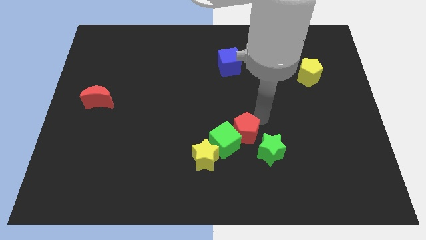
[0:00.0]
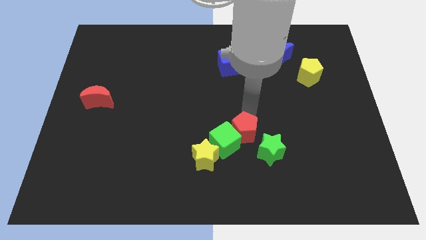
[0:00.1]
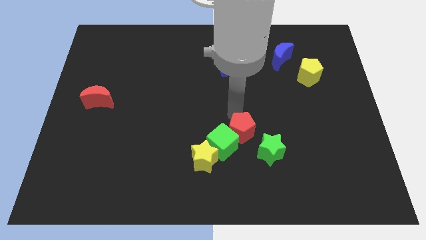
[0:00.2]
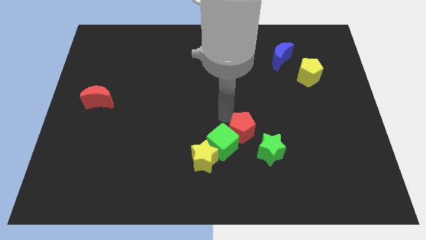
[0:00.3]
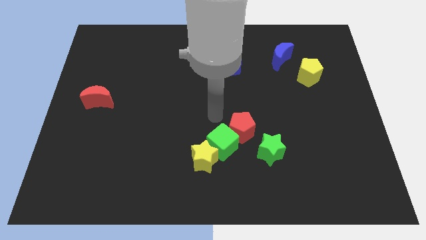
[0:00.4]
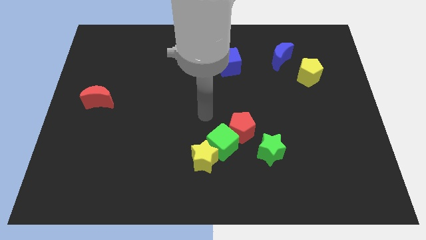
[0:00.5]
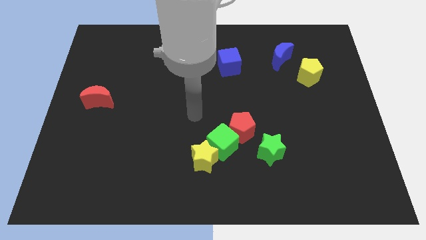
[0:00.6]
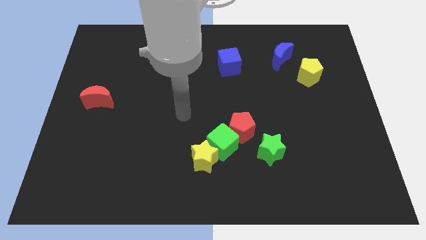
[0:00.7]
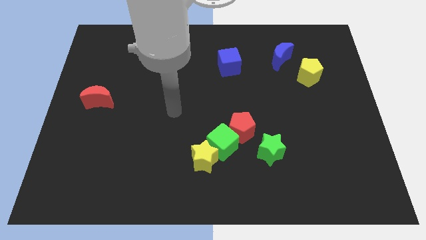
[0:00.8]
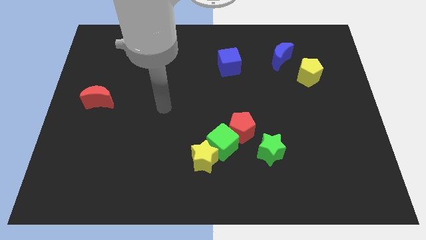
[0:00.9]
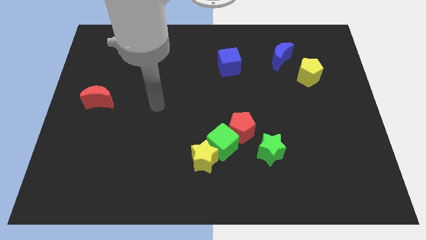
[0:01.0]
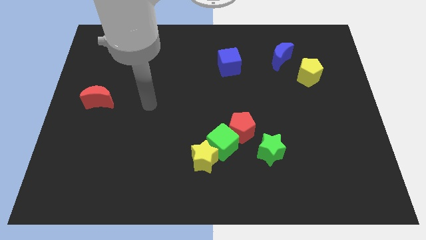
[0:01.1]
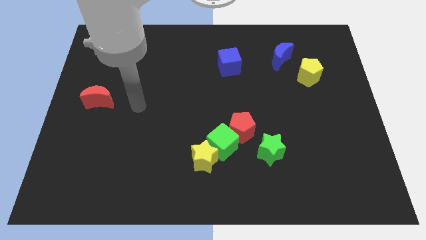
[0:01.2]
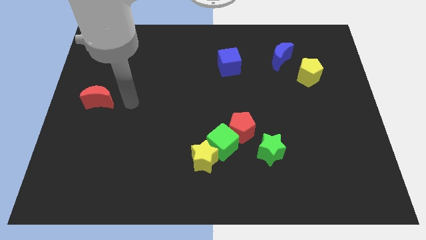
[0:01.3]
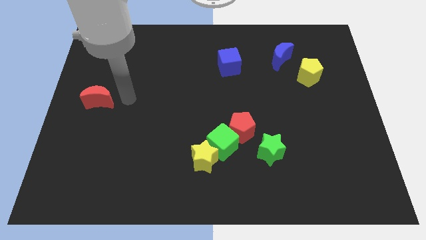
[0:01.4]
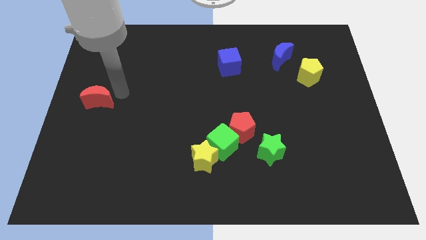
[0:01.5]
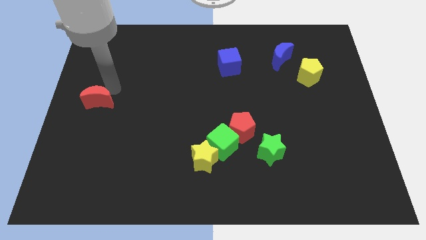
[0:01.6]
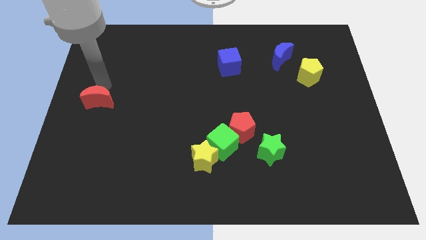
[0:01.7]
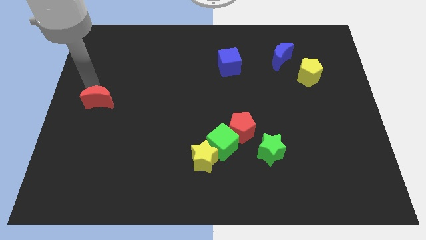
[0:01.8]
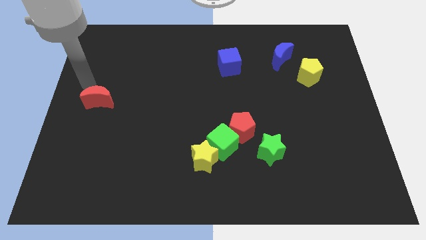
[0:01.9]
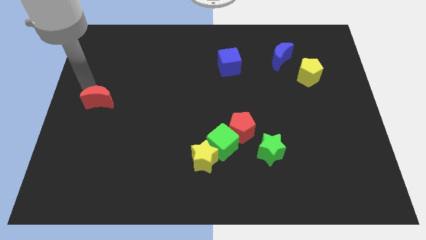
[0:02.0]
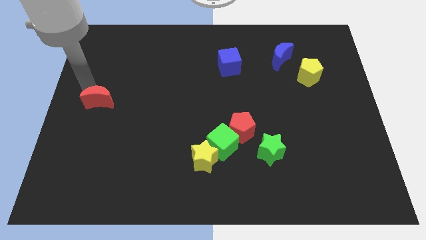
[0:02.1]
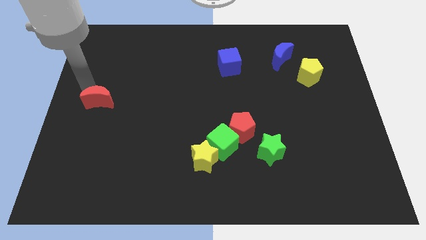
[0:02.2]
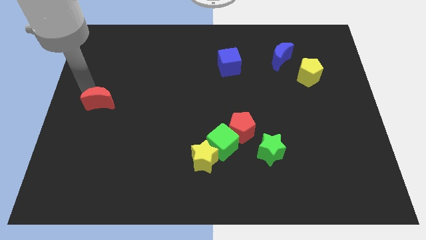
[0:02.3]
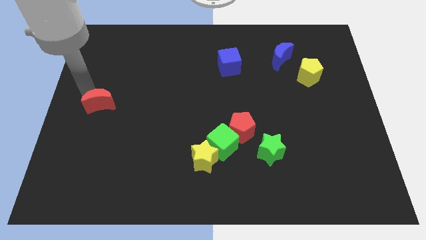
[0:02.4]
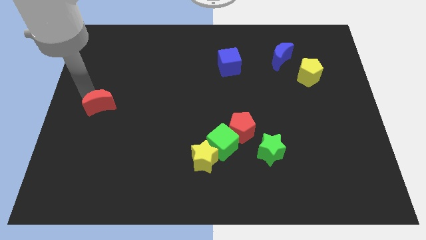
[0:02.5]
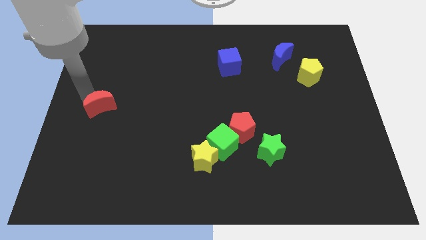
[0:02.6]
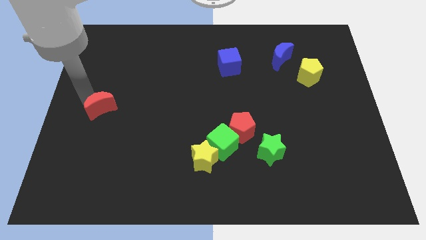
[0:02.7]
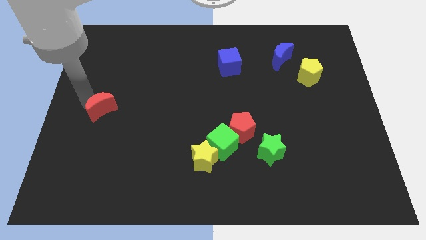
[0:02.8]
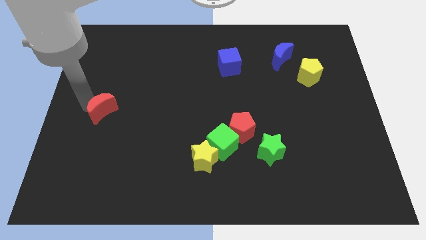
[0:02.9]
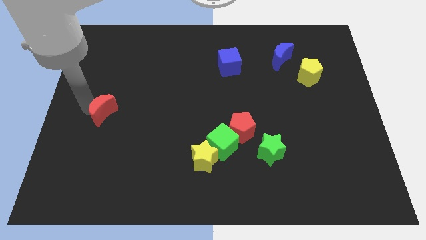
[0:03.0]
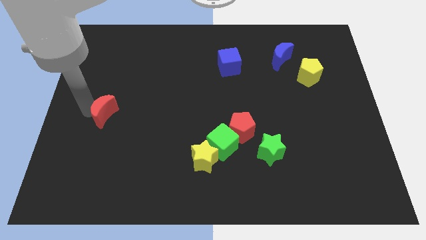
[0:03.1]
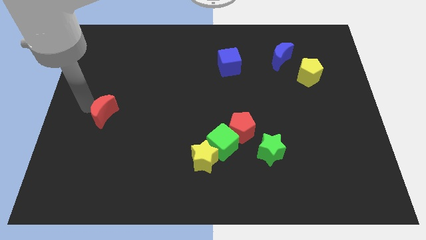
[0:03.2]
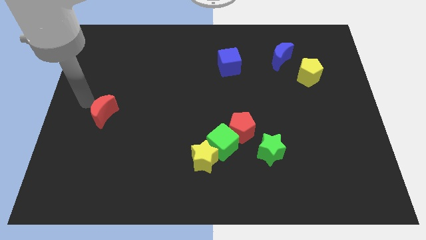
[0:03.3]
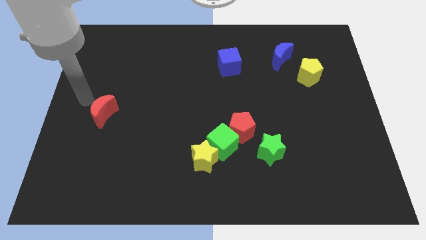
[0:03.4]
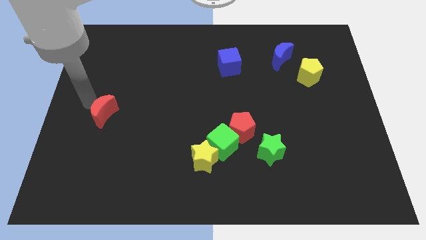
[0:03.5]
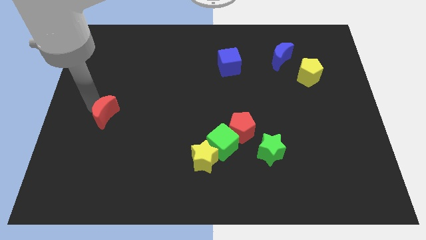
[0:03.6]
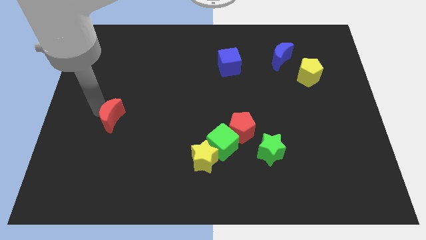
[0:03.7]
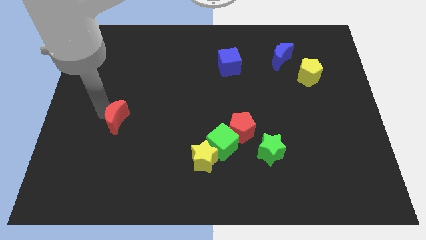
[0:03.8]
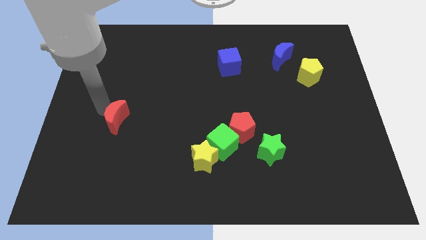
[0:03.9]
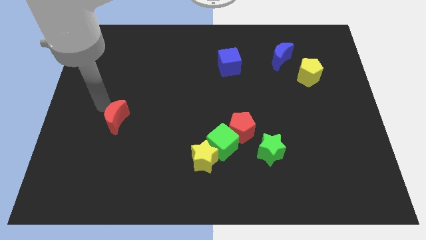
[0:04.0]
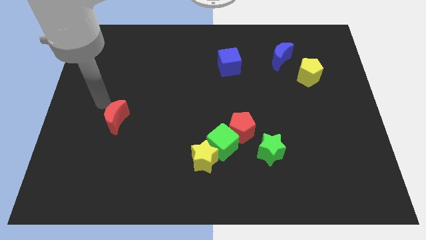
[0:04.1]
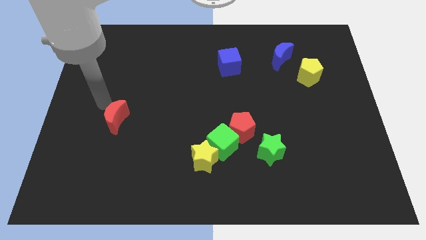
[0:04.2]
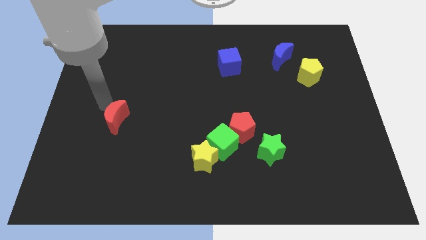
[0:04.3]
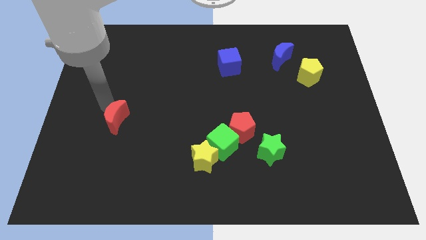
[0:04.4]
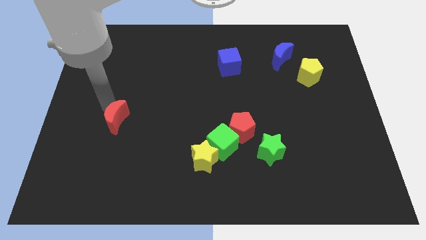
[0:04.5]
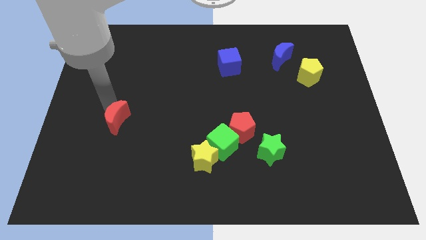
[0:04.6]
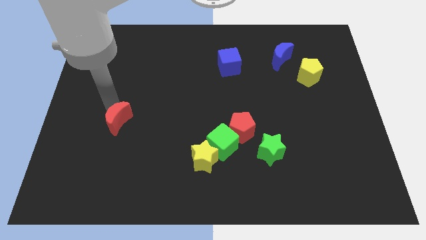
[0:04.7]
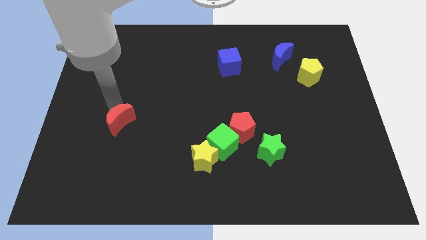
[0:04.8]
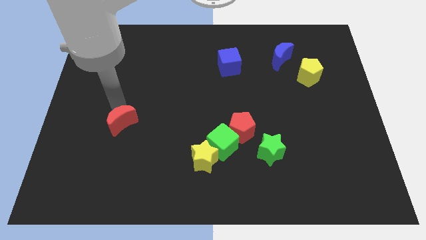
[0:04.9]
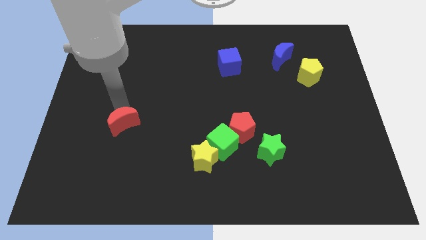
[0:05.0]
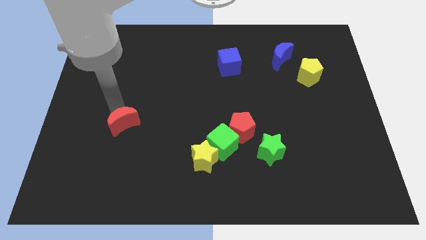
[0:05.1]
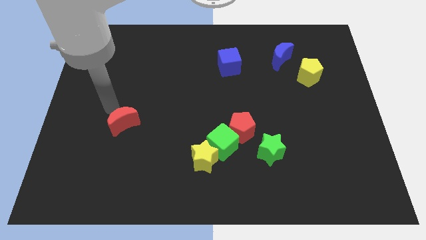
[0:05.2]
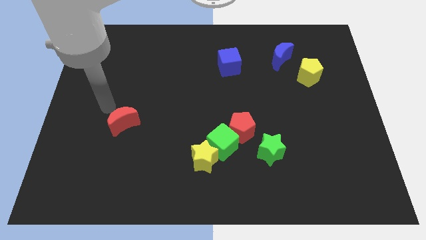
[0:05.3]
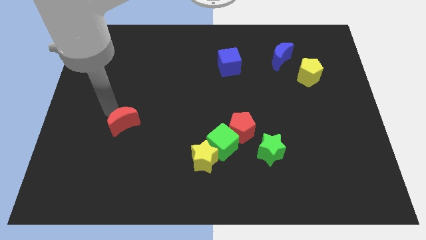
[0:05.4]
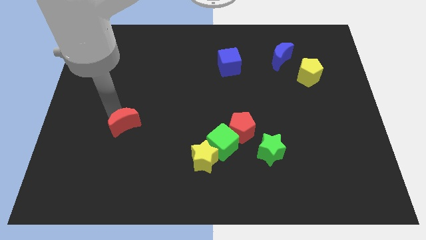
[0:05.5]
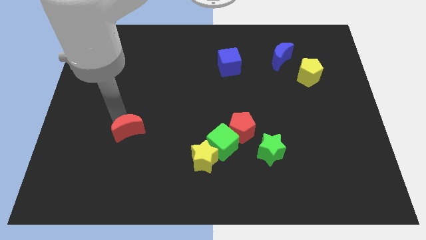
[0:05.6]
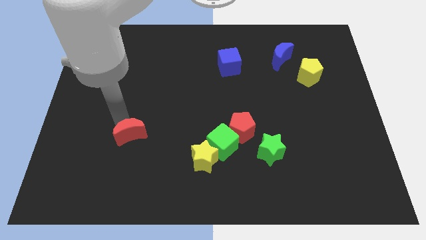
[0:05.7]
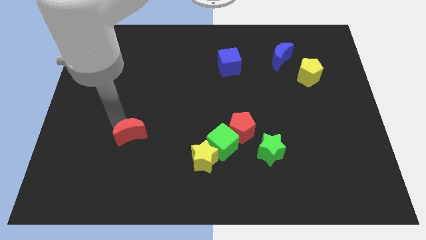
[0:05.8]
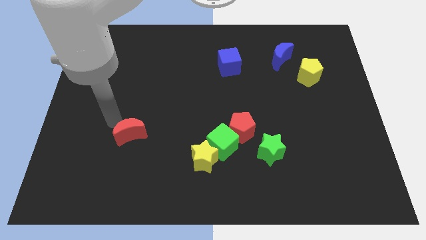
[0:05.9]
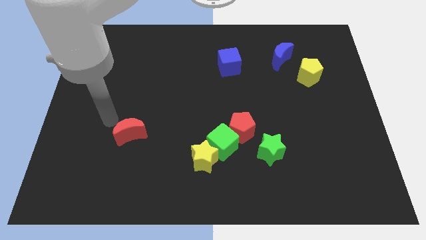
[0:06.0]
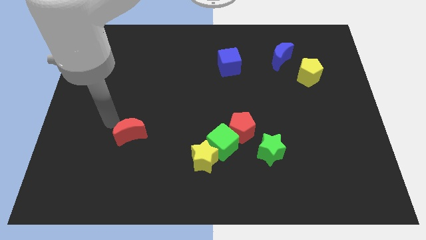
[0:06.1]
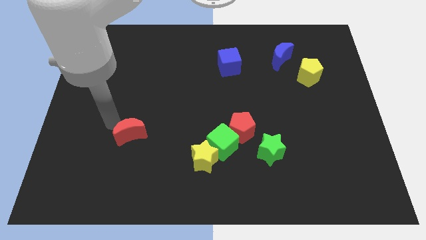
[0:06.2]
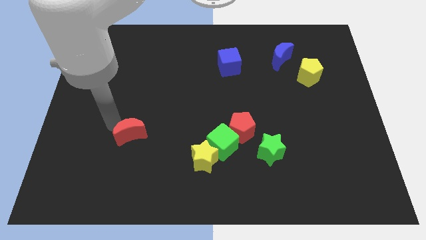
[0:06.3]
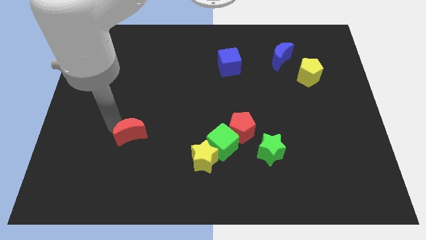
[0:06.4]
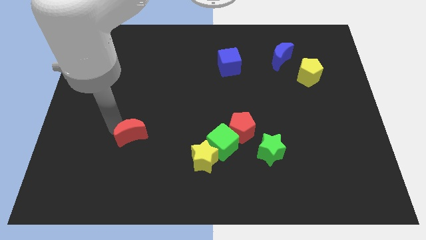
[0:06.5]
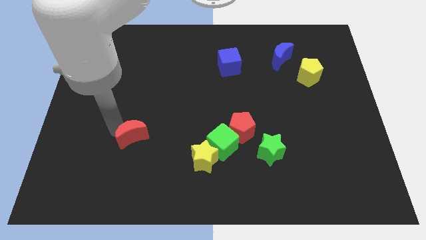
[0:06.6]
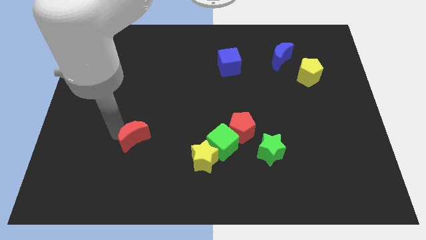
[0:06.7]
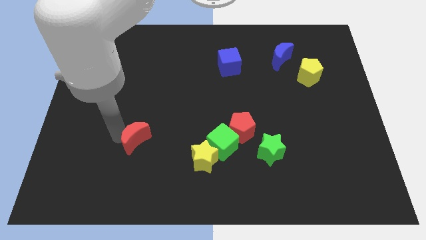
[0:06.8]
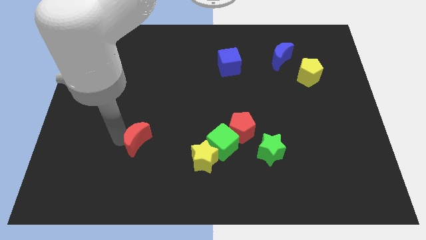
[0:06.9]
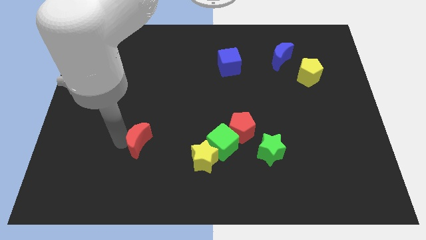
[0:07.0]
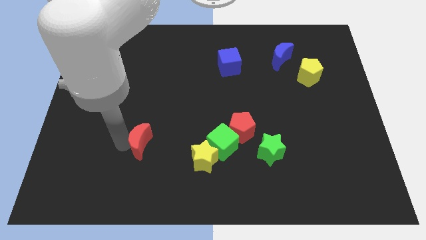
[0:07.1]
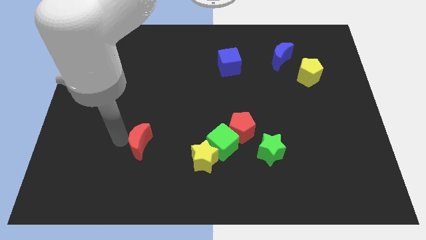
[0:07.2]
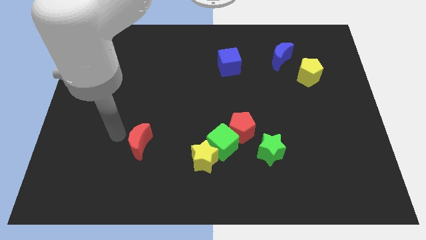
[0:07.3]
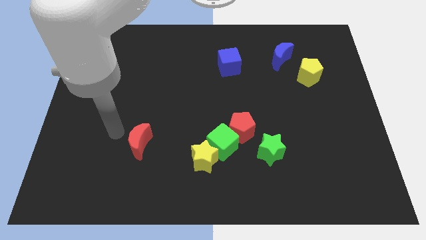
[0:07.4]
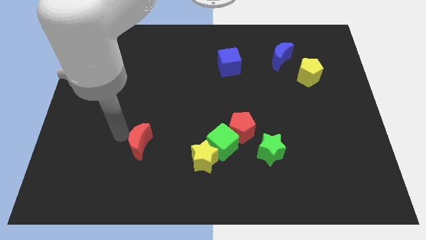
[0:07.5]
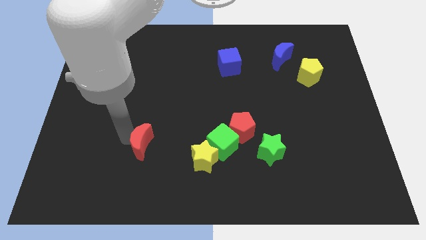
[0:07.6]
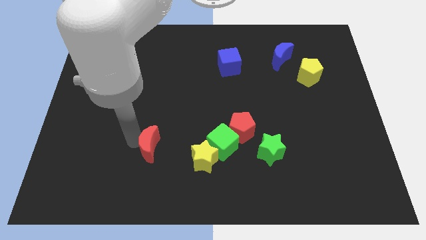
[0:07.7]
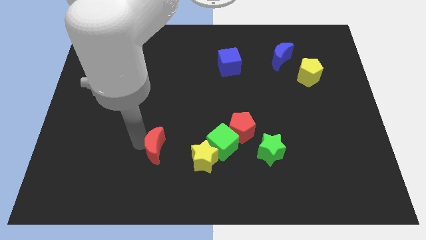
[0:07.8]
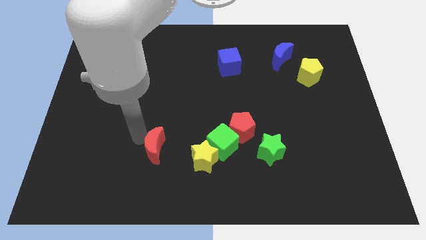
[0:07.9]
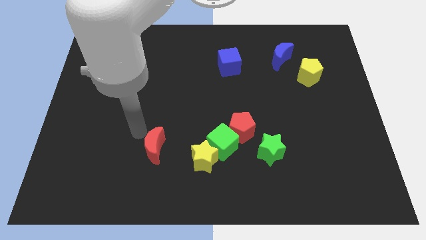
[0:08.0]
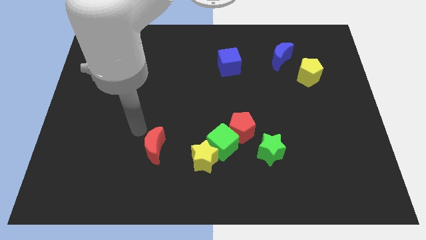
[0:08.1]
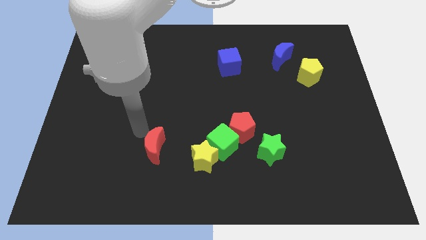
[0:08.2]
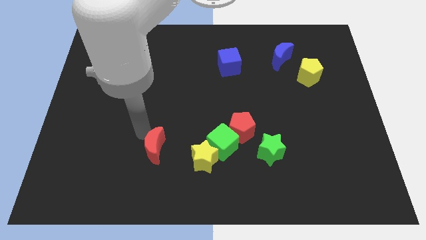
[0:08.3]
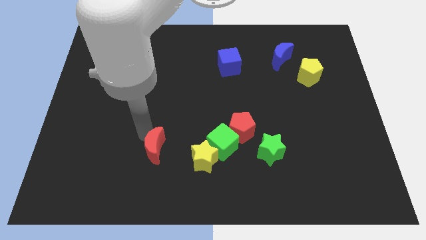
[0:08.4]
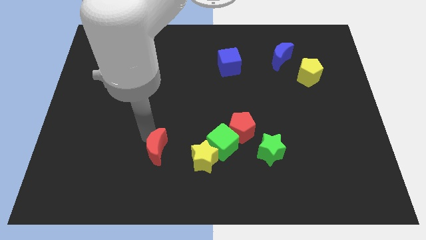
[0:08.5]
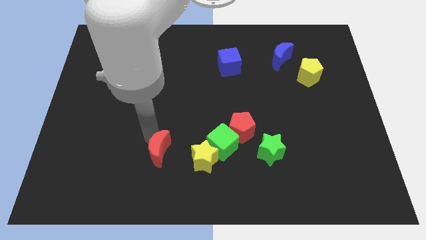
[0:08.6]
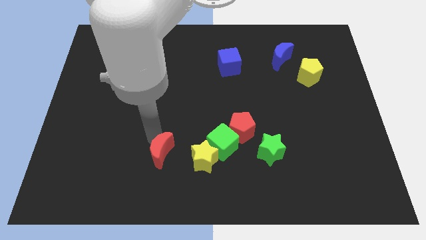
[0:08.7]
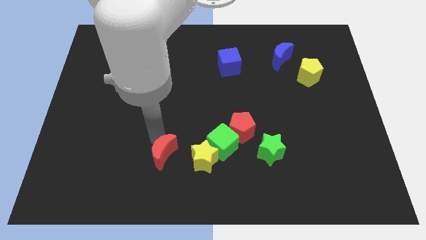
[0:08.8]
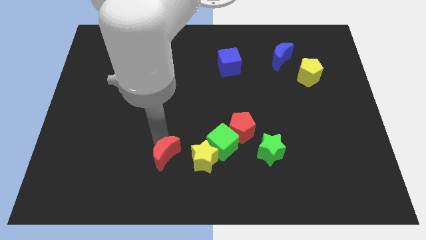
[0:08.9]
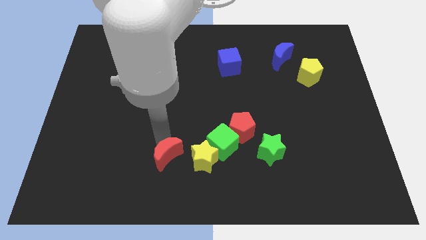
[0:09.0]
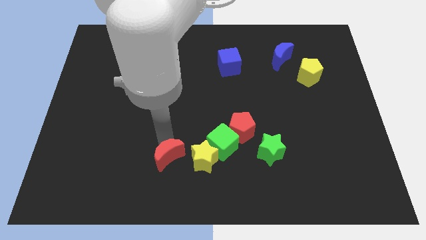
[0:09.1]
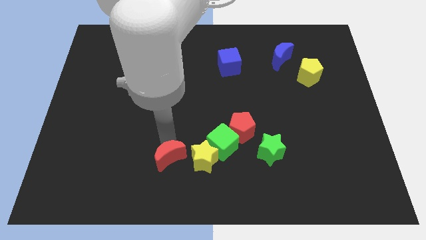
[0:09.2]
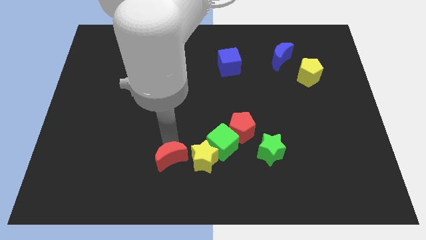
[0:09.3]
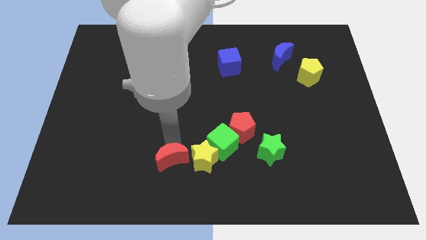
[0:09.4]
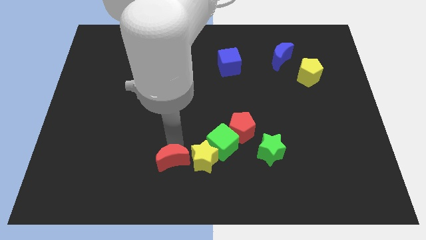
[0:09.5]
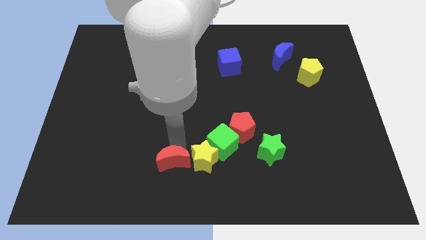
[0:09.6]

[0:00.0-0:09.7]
put the red moon to the bottom left side of the green cube
